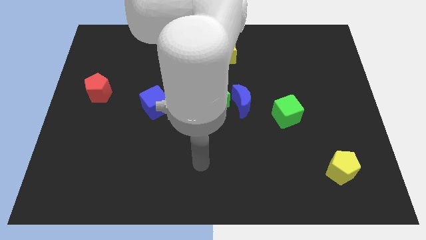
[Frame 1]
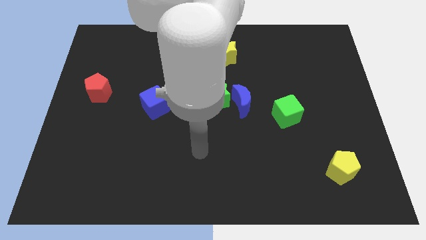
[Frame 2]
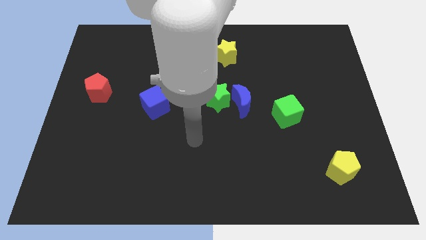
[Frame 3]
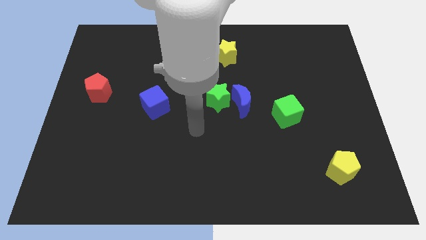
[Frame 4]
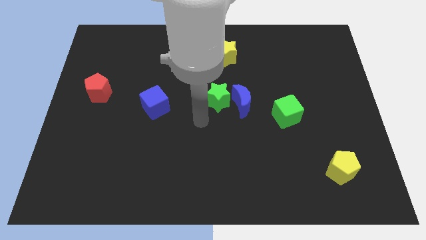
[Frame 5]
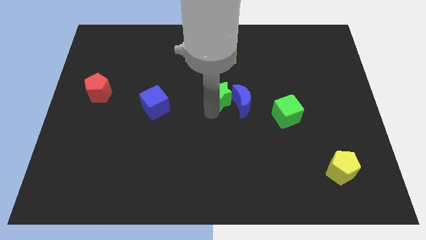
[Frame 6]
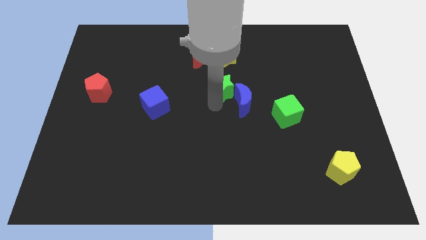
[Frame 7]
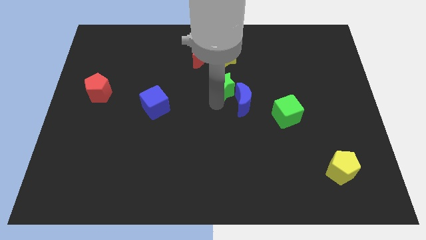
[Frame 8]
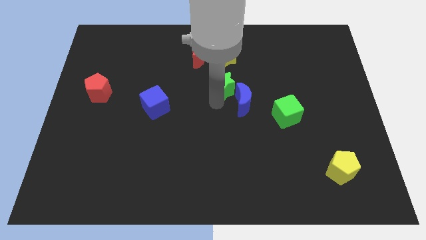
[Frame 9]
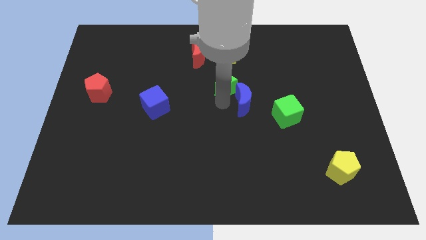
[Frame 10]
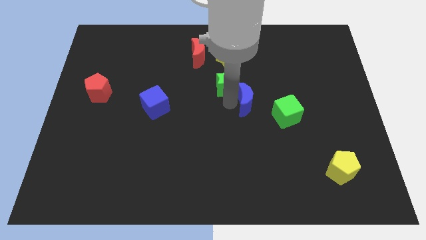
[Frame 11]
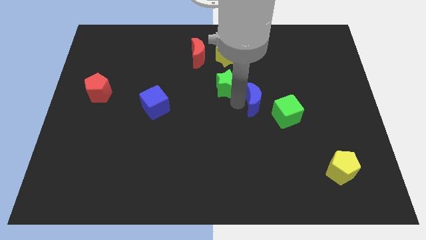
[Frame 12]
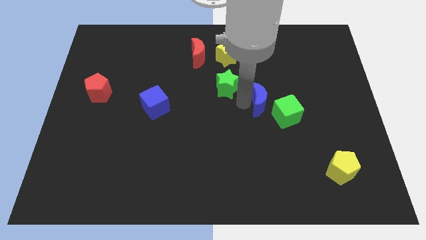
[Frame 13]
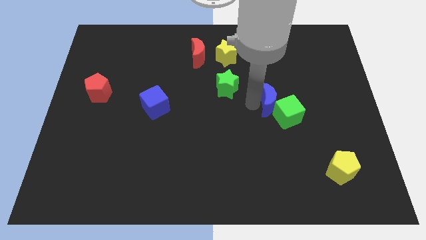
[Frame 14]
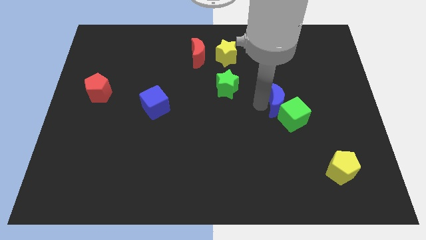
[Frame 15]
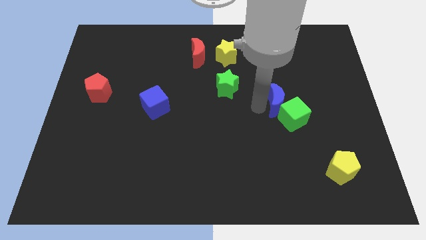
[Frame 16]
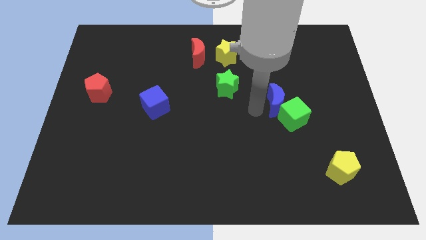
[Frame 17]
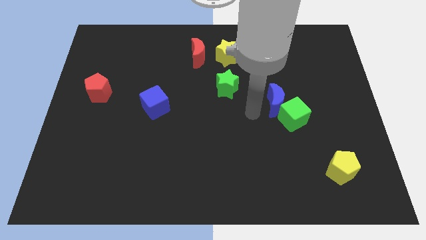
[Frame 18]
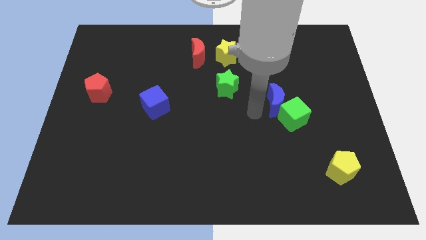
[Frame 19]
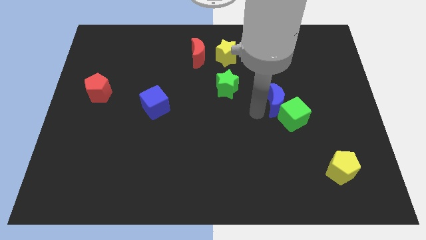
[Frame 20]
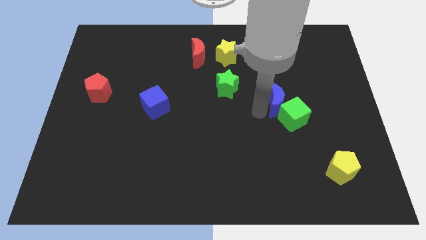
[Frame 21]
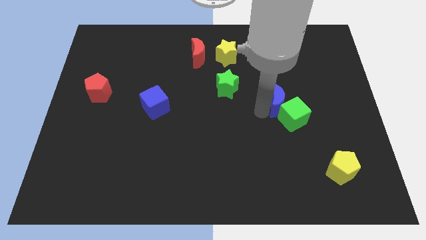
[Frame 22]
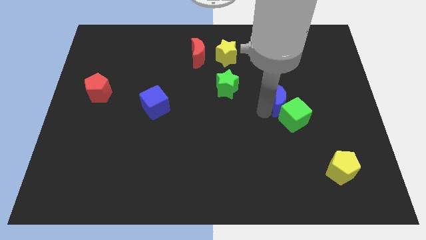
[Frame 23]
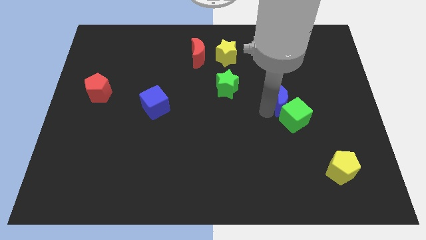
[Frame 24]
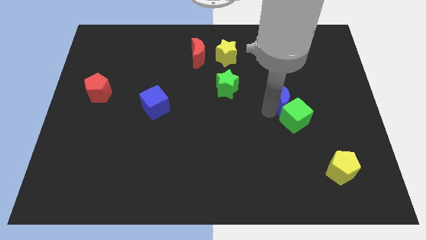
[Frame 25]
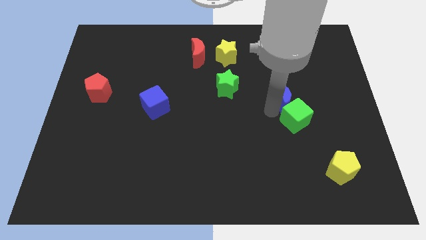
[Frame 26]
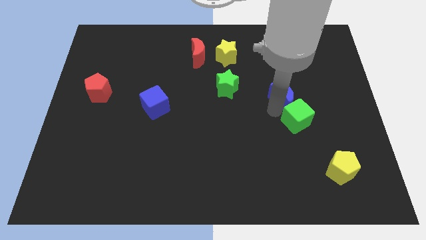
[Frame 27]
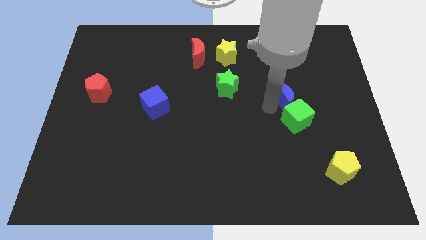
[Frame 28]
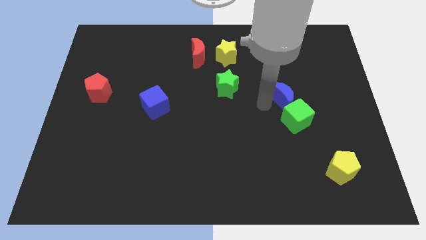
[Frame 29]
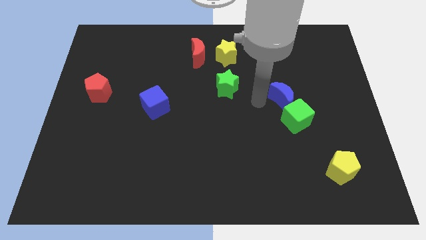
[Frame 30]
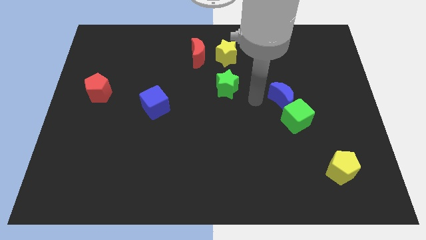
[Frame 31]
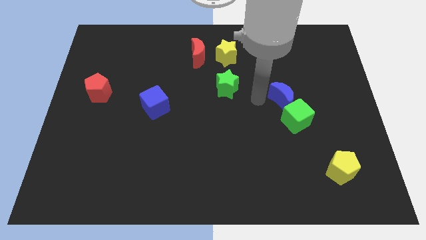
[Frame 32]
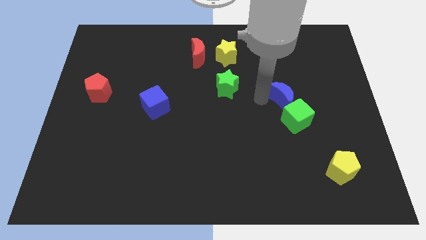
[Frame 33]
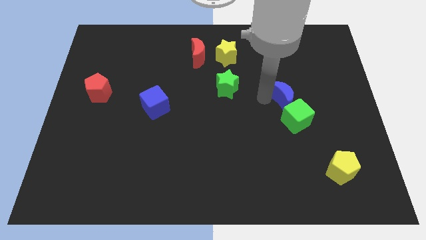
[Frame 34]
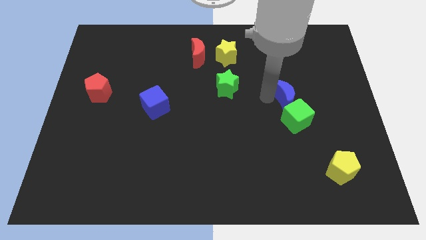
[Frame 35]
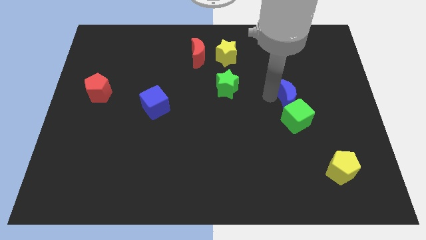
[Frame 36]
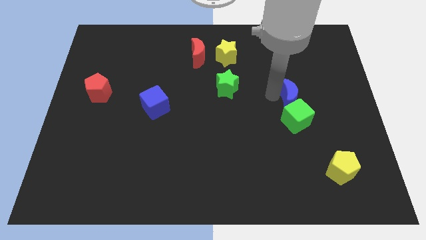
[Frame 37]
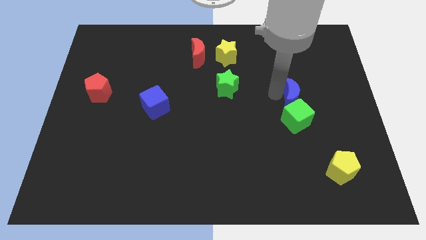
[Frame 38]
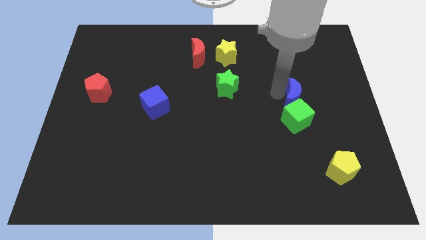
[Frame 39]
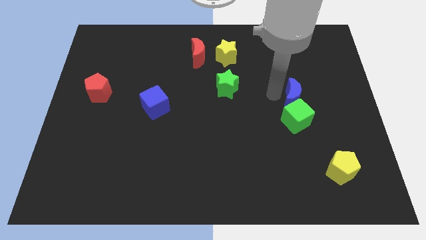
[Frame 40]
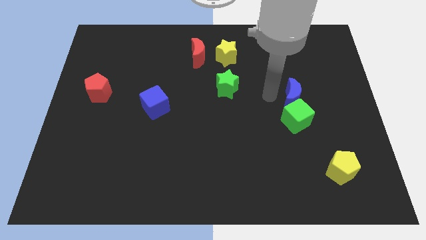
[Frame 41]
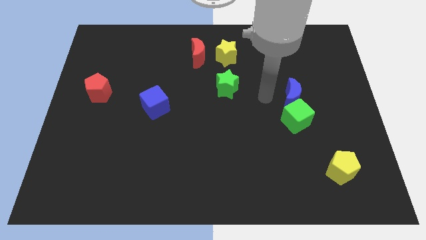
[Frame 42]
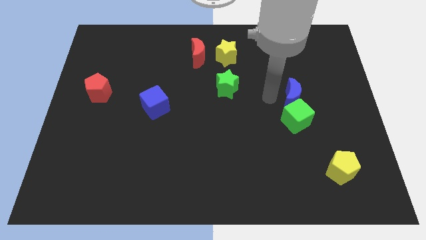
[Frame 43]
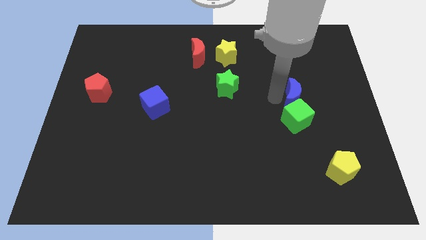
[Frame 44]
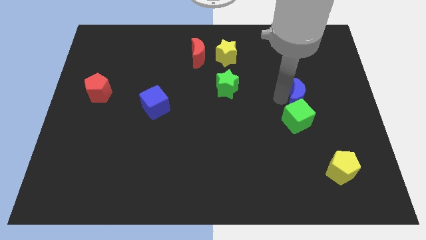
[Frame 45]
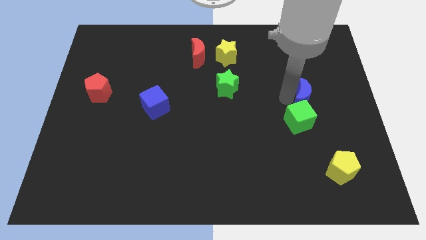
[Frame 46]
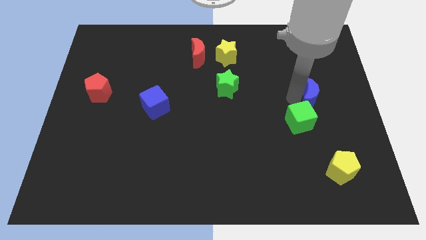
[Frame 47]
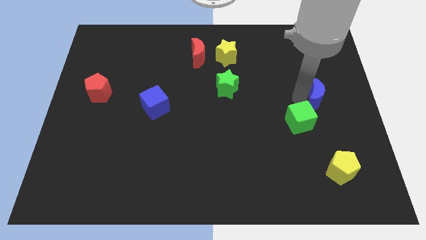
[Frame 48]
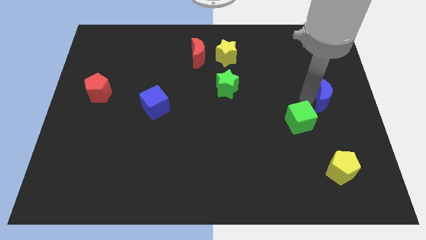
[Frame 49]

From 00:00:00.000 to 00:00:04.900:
slide the blue moon to the right side of the board

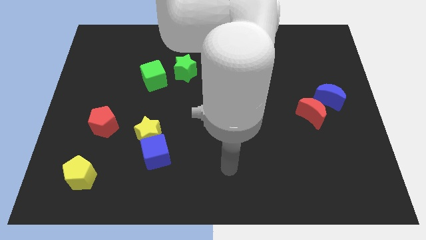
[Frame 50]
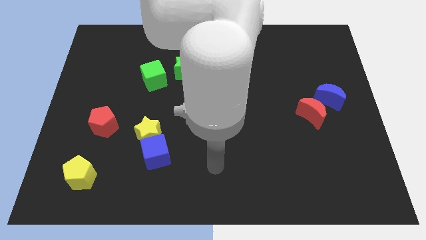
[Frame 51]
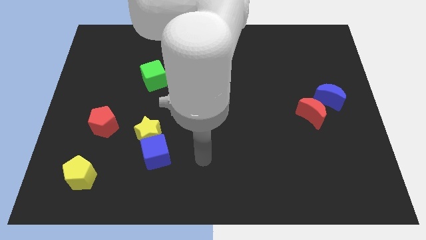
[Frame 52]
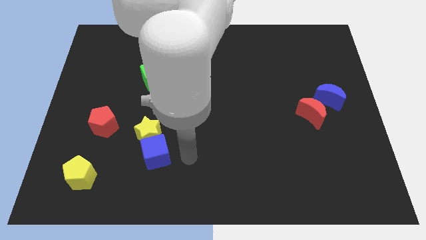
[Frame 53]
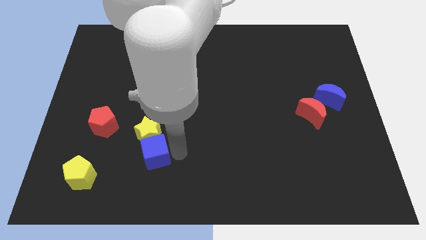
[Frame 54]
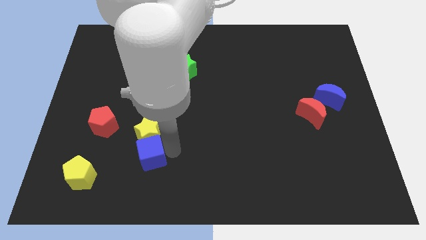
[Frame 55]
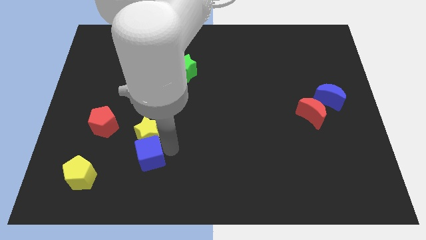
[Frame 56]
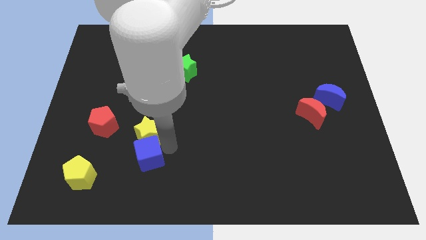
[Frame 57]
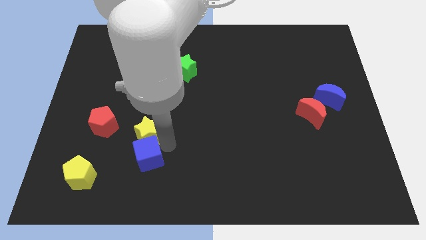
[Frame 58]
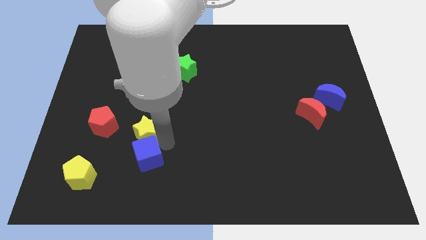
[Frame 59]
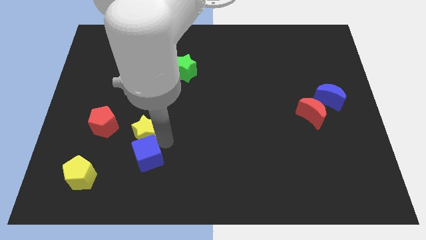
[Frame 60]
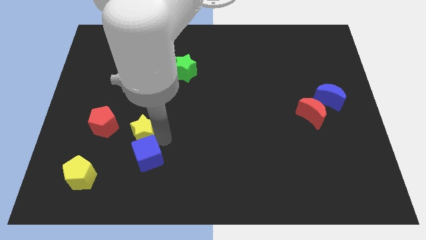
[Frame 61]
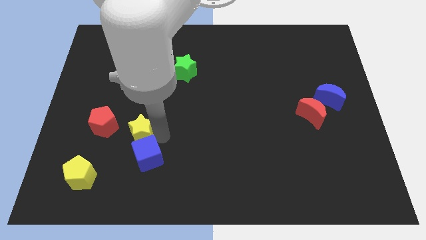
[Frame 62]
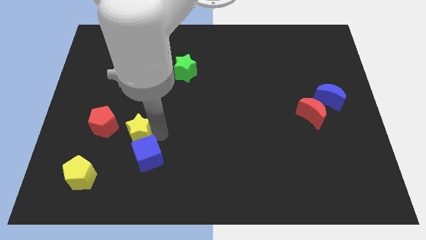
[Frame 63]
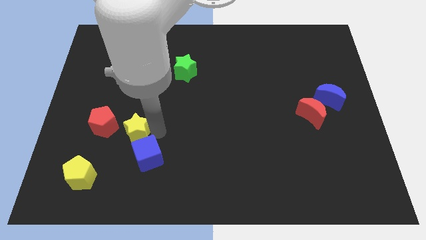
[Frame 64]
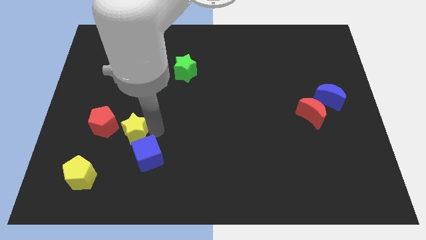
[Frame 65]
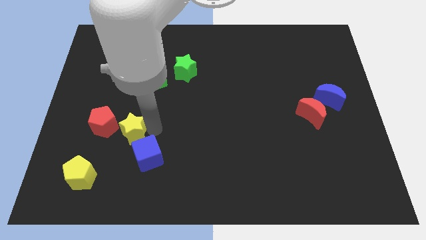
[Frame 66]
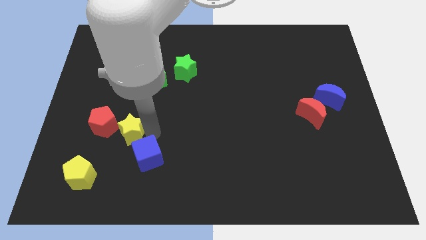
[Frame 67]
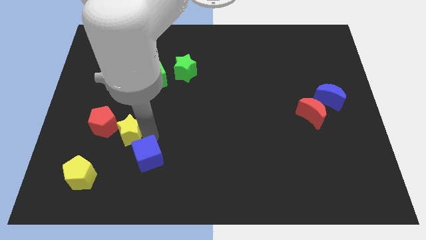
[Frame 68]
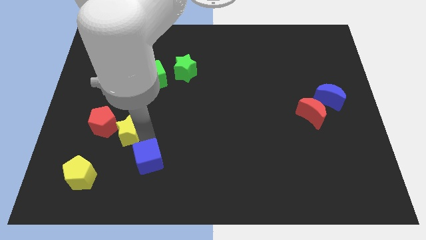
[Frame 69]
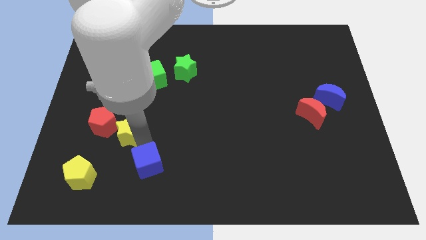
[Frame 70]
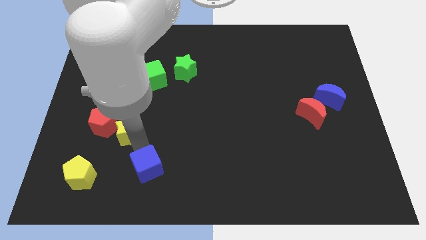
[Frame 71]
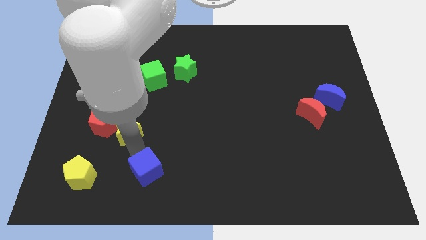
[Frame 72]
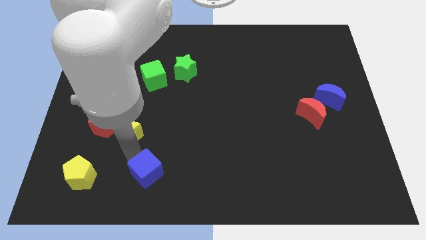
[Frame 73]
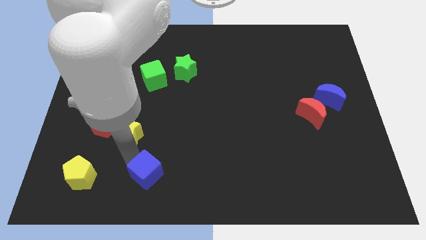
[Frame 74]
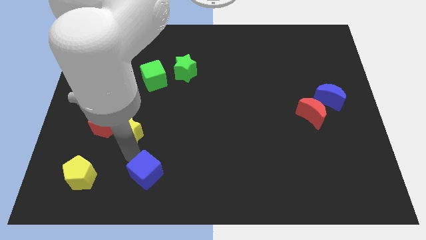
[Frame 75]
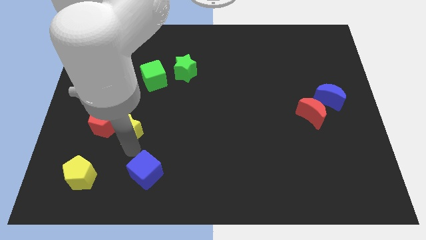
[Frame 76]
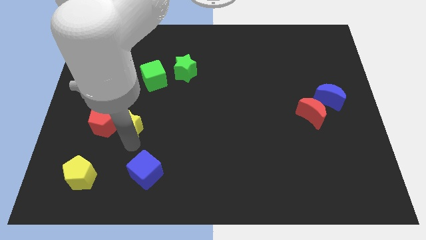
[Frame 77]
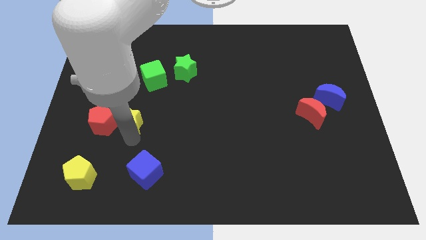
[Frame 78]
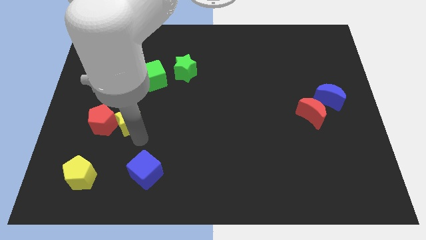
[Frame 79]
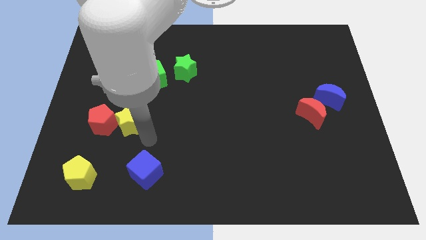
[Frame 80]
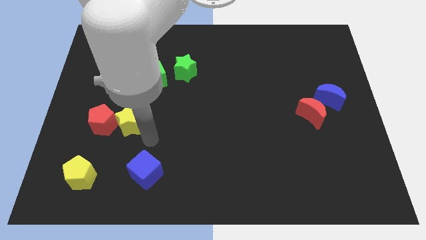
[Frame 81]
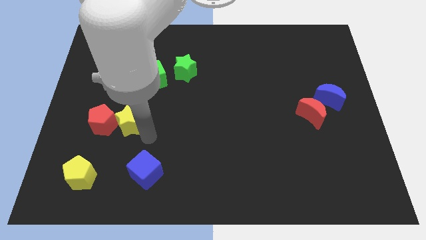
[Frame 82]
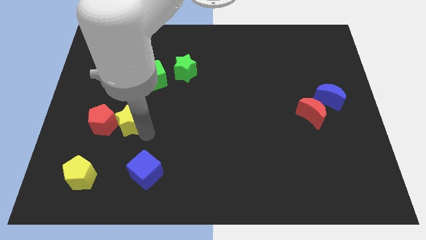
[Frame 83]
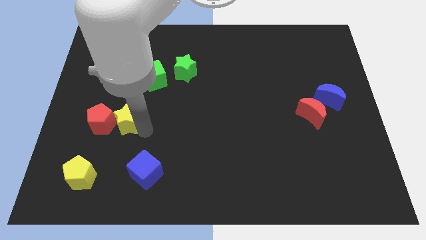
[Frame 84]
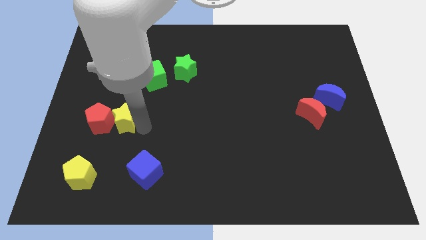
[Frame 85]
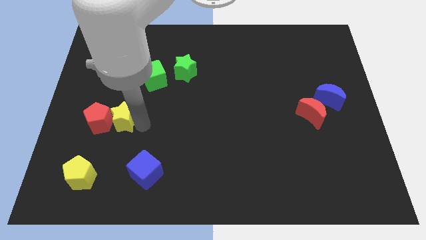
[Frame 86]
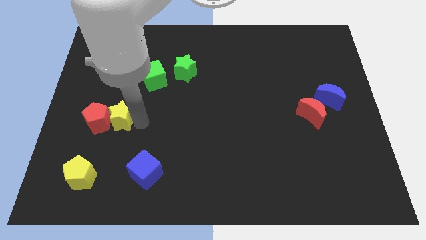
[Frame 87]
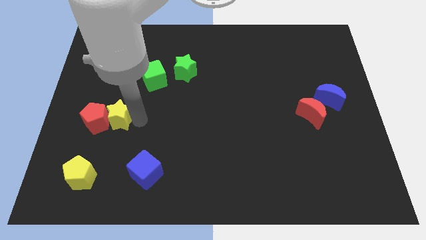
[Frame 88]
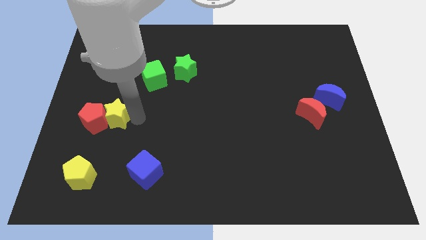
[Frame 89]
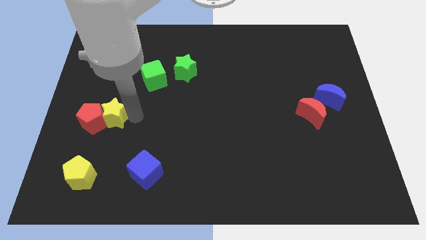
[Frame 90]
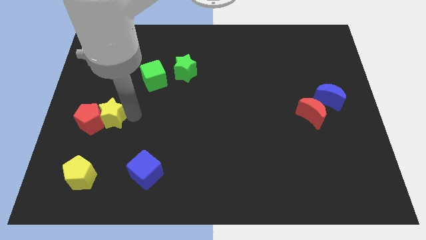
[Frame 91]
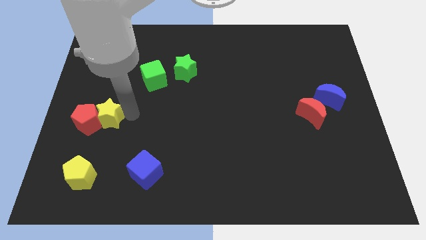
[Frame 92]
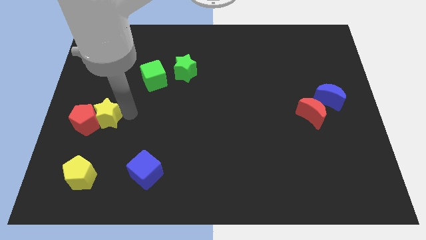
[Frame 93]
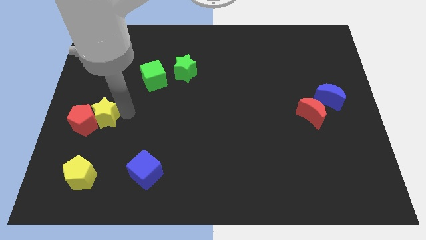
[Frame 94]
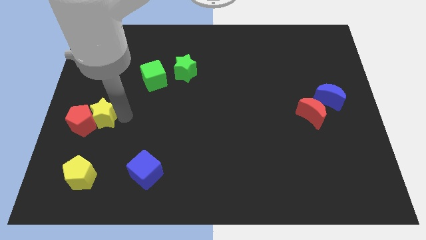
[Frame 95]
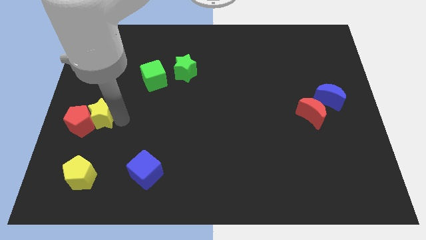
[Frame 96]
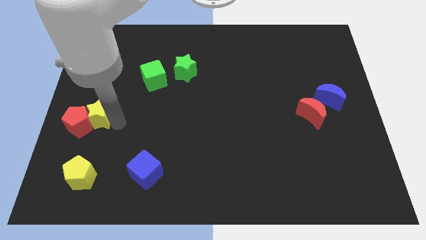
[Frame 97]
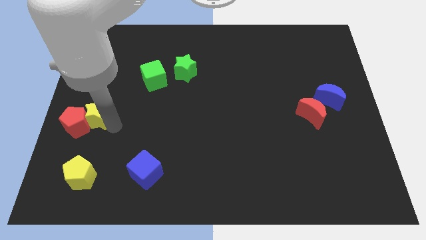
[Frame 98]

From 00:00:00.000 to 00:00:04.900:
move the yellow star to the center left
